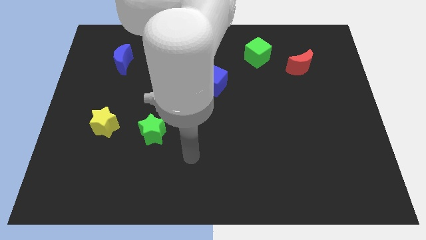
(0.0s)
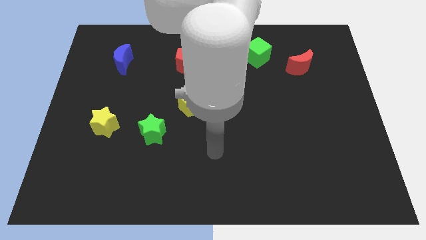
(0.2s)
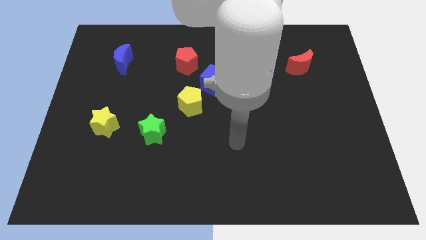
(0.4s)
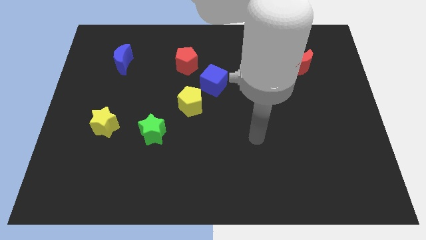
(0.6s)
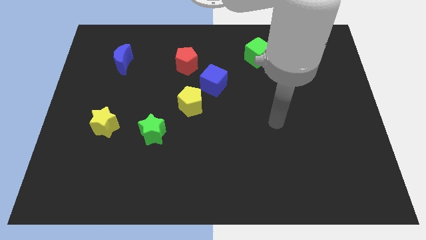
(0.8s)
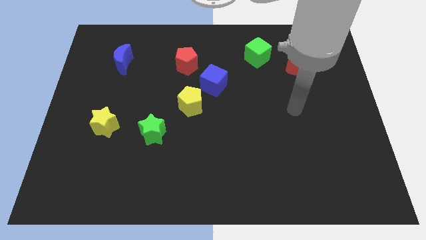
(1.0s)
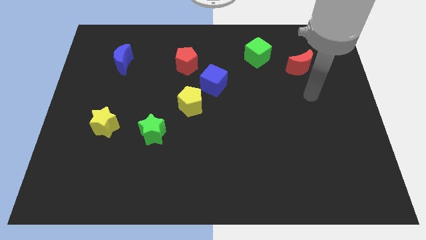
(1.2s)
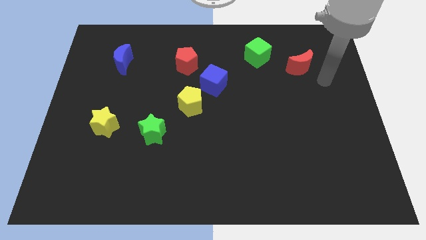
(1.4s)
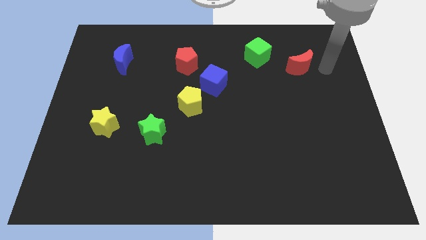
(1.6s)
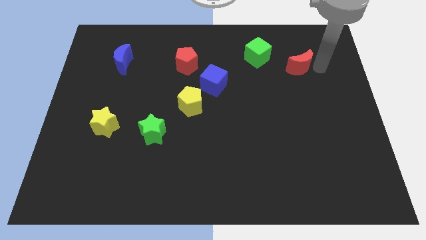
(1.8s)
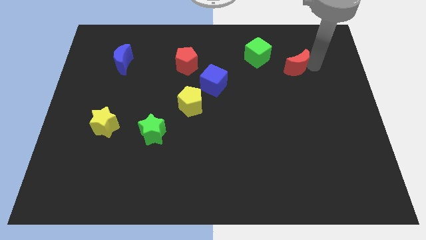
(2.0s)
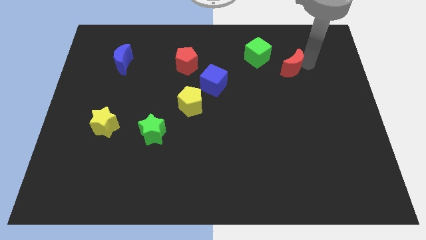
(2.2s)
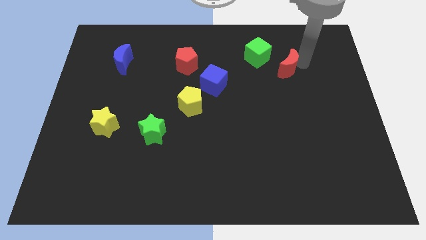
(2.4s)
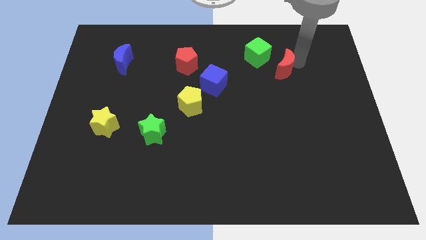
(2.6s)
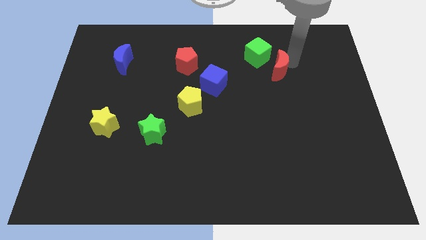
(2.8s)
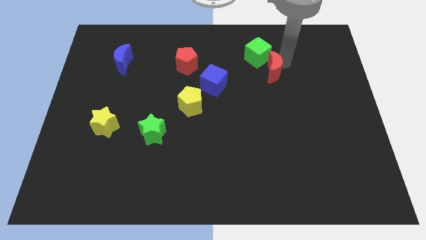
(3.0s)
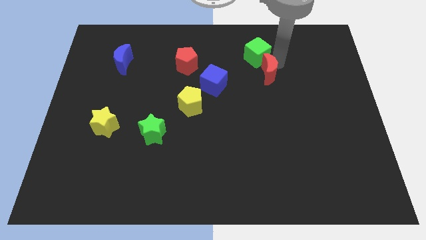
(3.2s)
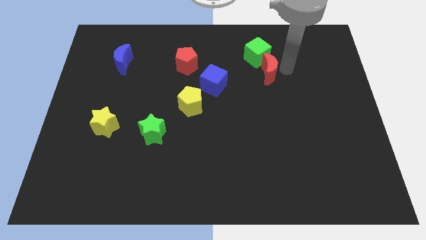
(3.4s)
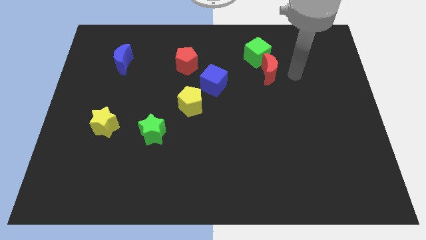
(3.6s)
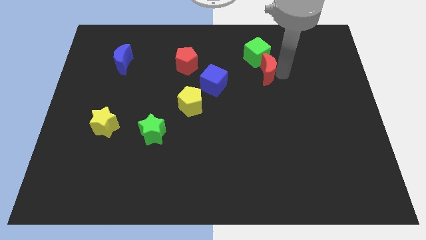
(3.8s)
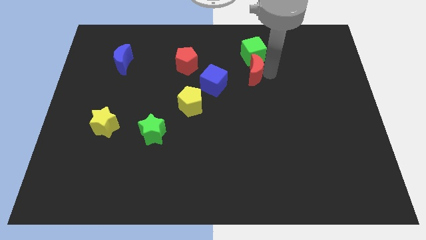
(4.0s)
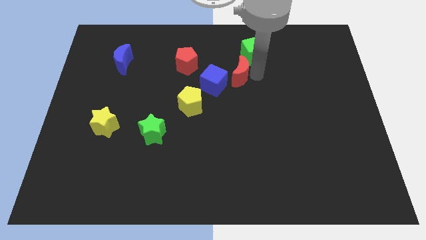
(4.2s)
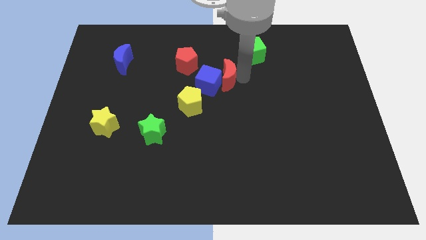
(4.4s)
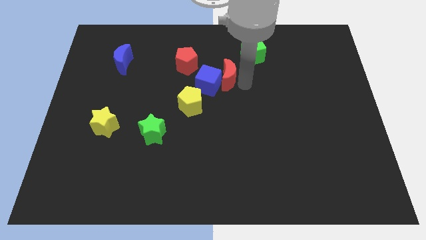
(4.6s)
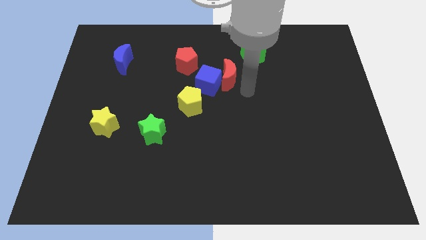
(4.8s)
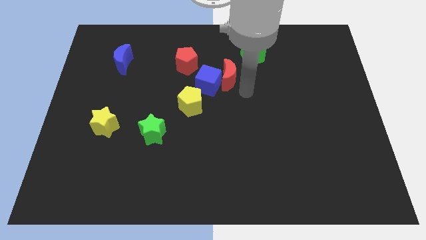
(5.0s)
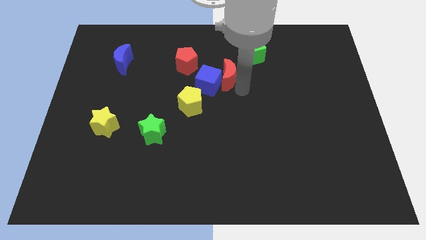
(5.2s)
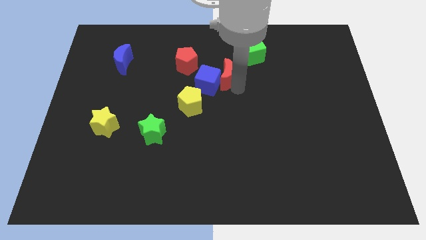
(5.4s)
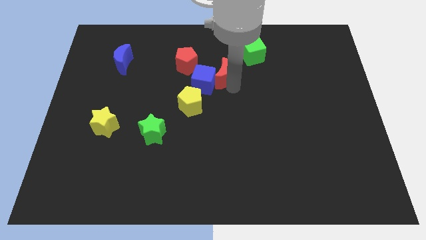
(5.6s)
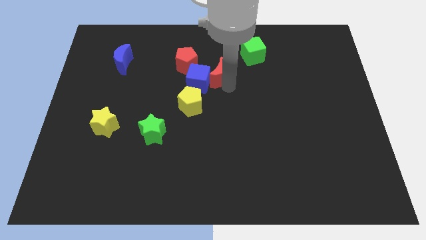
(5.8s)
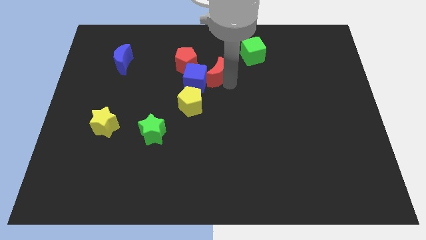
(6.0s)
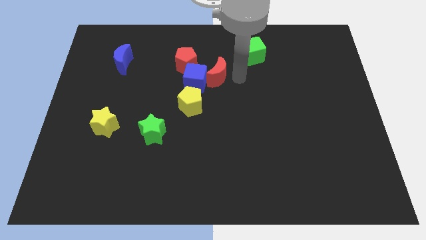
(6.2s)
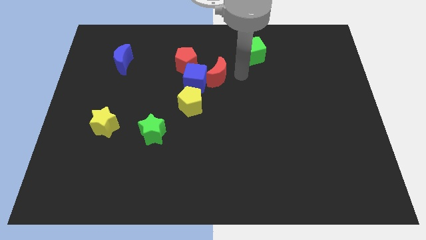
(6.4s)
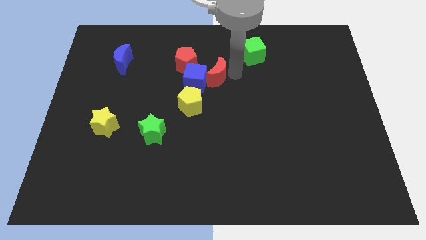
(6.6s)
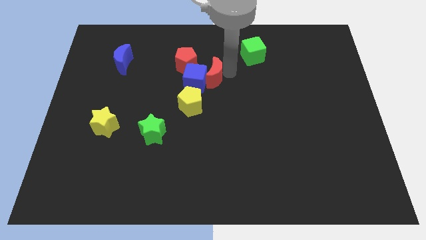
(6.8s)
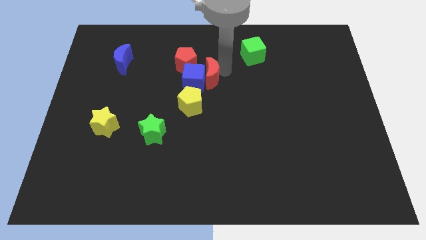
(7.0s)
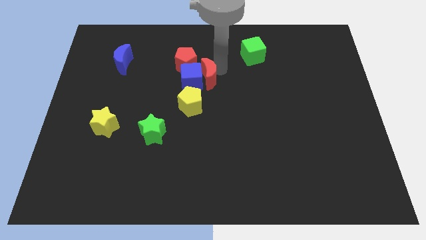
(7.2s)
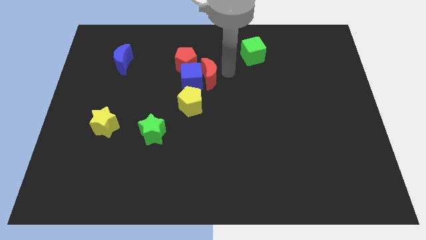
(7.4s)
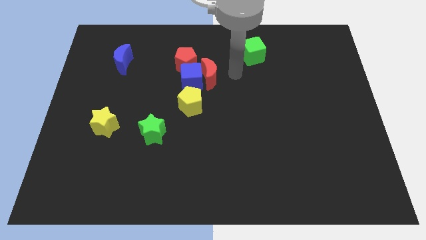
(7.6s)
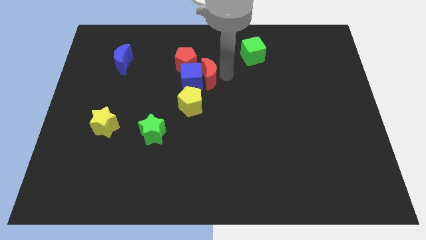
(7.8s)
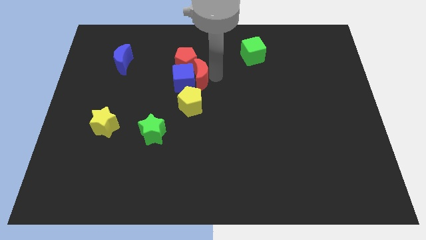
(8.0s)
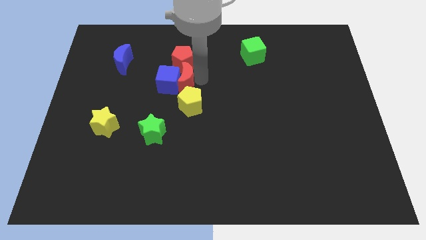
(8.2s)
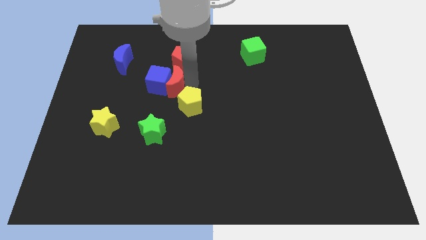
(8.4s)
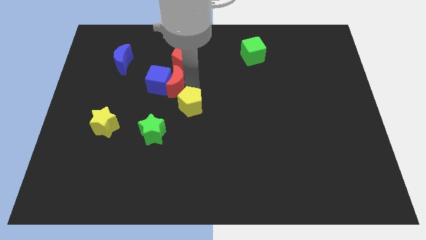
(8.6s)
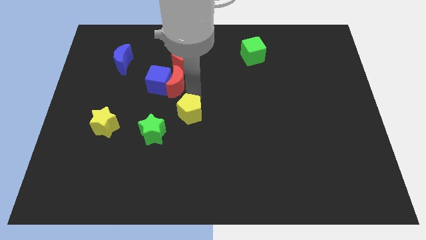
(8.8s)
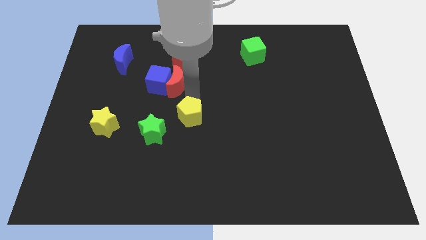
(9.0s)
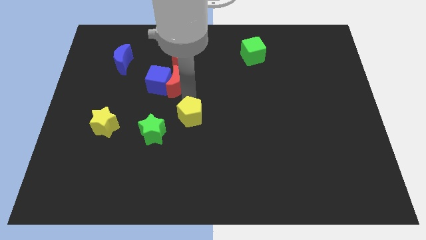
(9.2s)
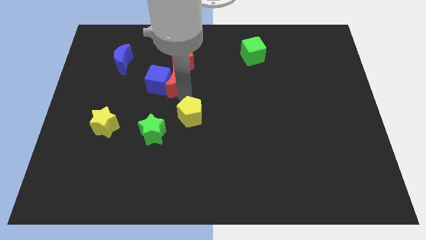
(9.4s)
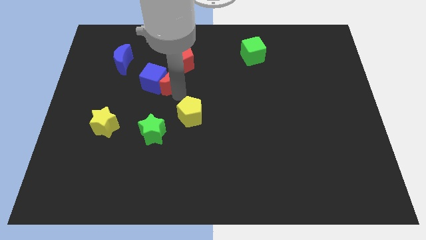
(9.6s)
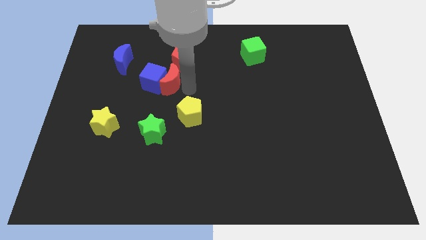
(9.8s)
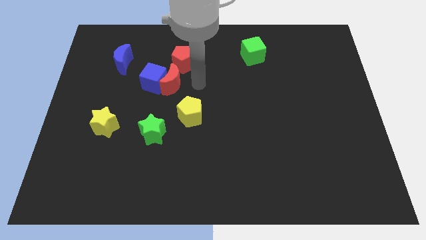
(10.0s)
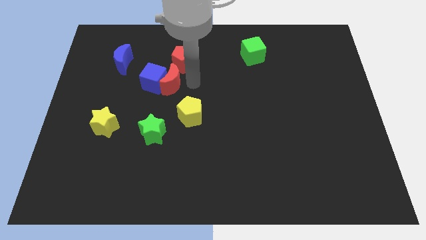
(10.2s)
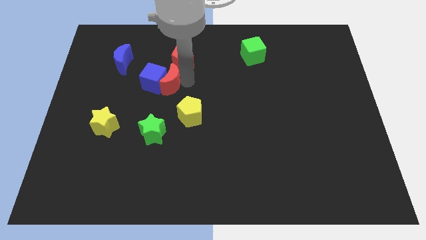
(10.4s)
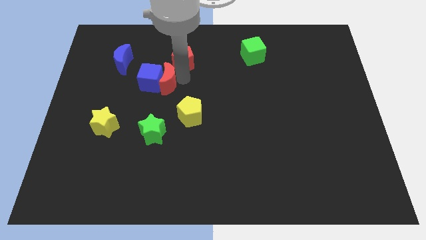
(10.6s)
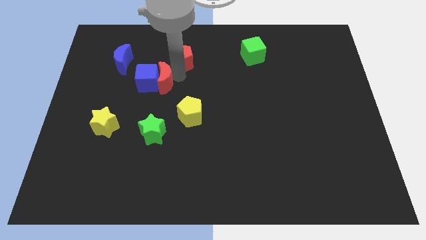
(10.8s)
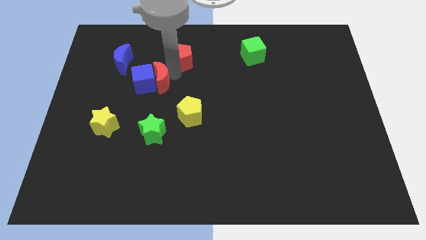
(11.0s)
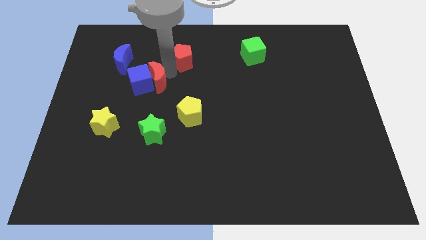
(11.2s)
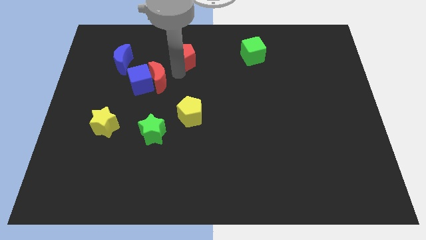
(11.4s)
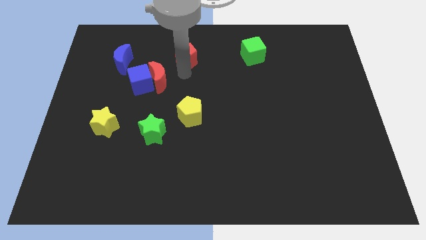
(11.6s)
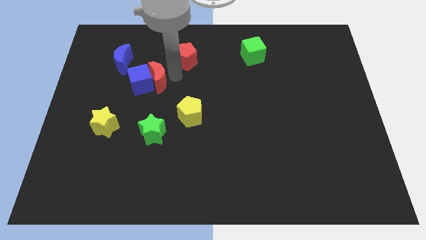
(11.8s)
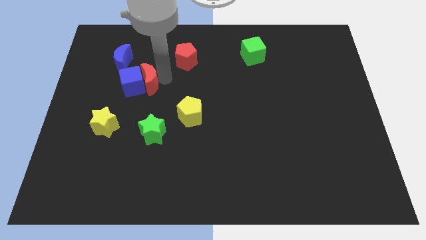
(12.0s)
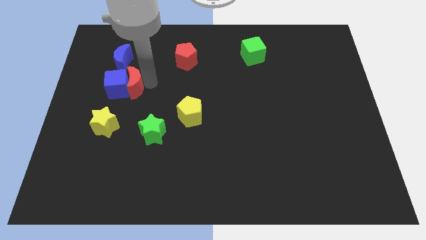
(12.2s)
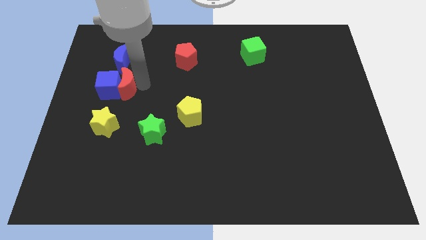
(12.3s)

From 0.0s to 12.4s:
put the red moon to the top side of the yellow star

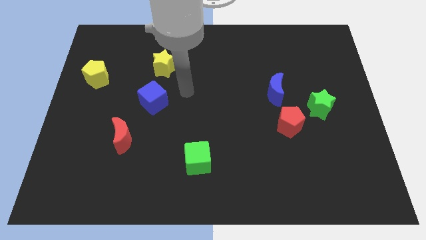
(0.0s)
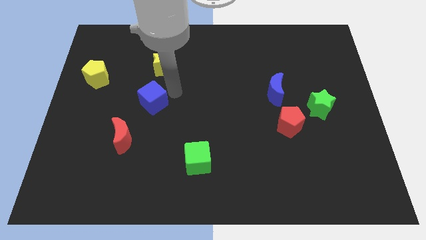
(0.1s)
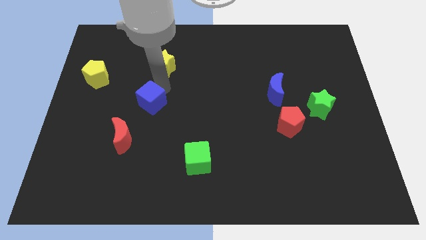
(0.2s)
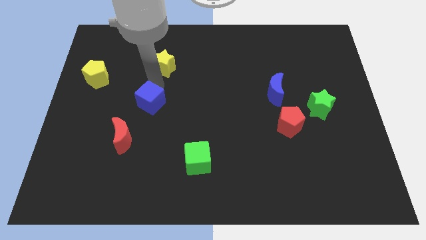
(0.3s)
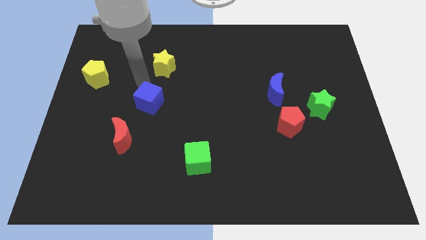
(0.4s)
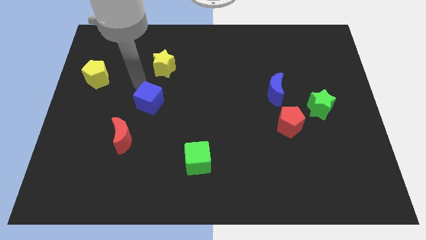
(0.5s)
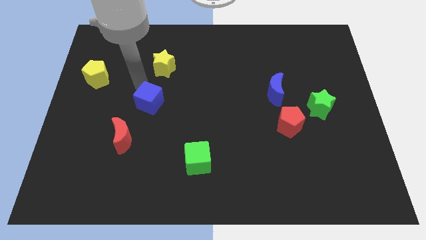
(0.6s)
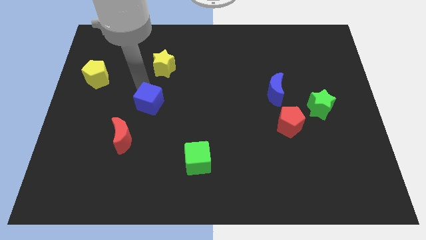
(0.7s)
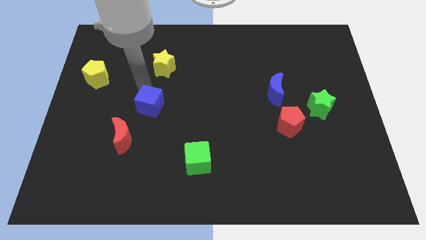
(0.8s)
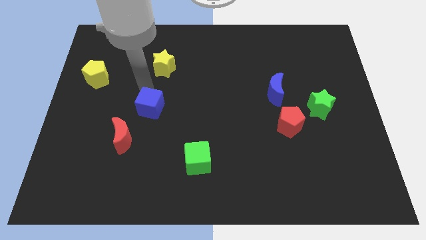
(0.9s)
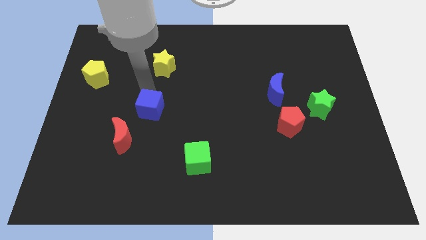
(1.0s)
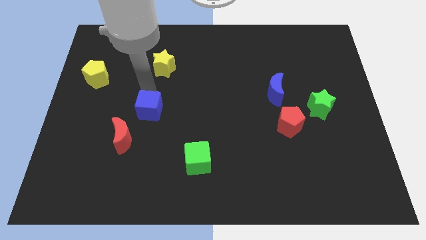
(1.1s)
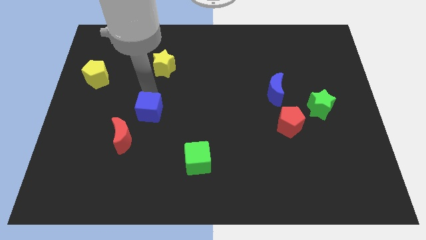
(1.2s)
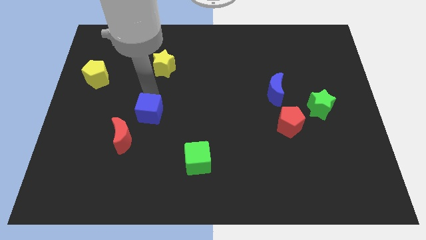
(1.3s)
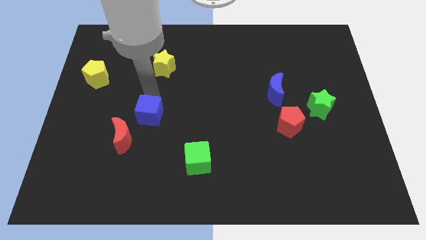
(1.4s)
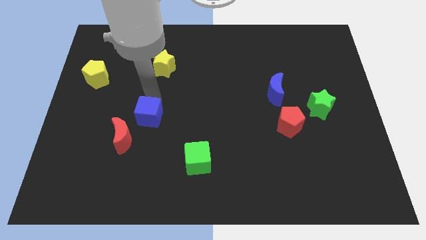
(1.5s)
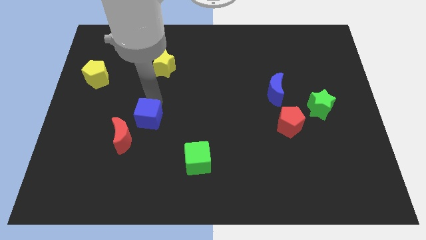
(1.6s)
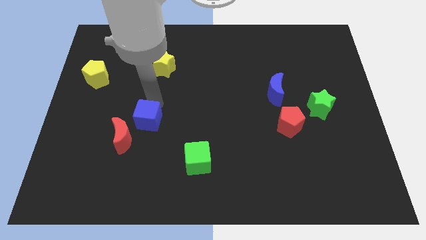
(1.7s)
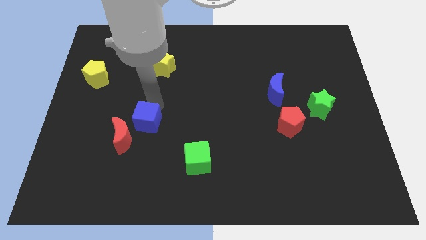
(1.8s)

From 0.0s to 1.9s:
slide the blue cube right of the red moon
